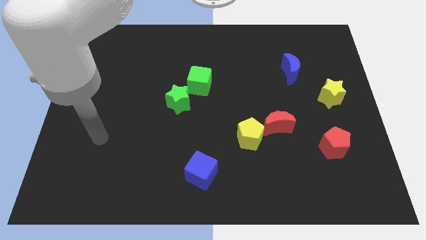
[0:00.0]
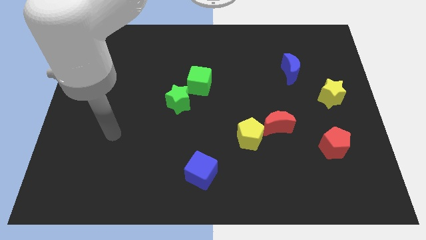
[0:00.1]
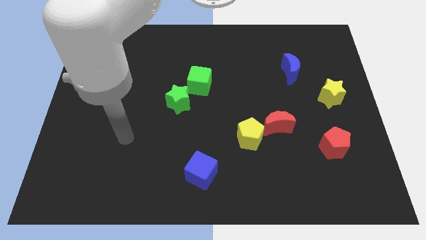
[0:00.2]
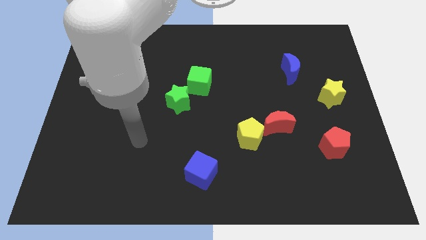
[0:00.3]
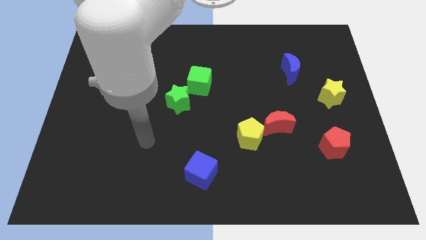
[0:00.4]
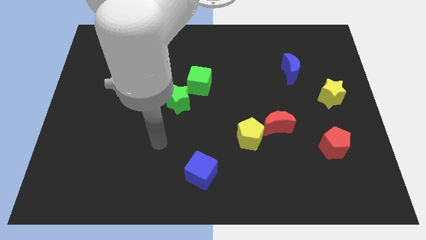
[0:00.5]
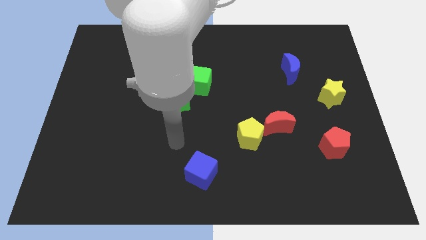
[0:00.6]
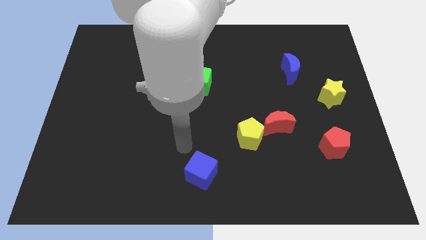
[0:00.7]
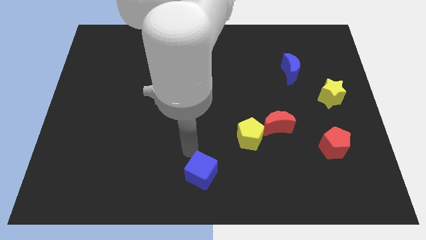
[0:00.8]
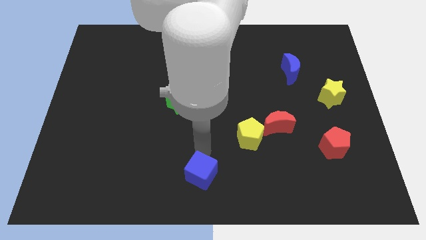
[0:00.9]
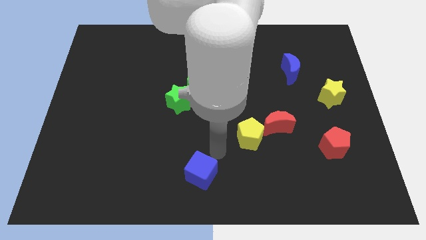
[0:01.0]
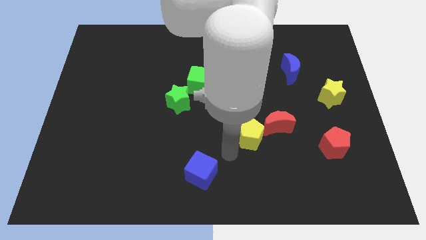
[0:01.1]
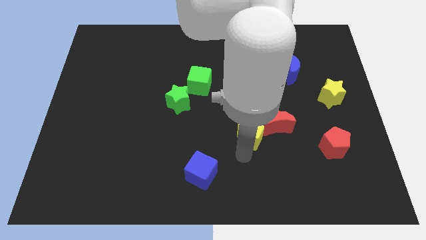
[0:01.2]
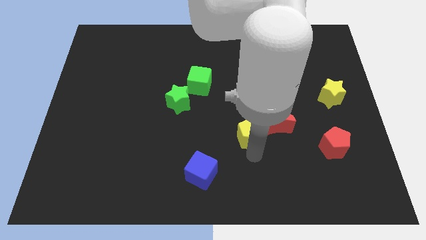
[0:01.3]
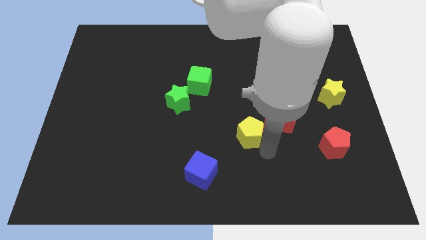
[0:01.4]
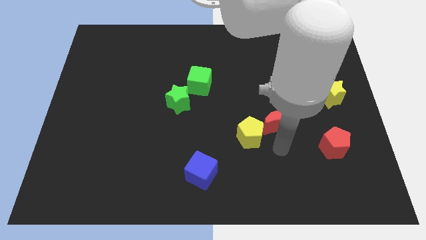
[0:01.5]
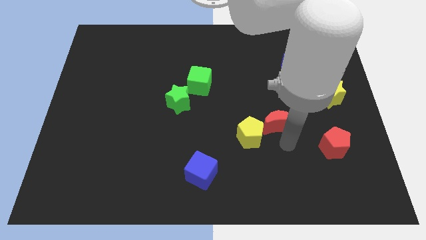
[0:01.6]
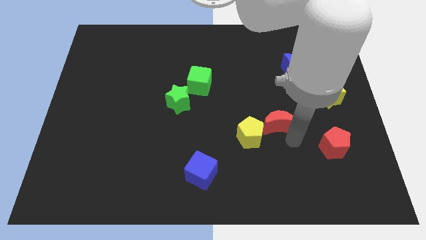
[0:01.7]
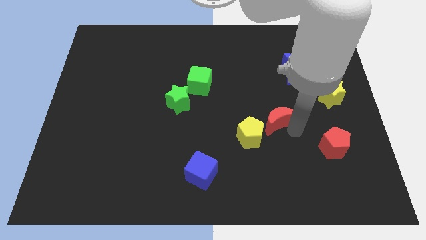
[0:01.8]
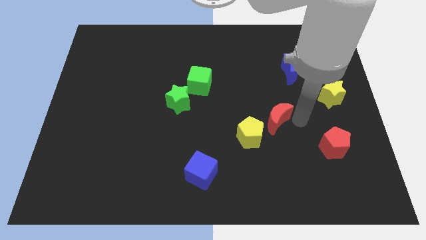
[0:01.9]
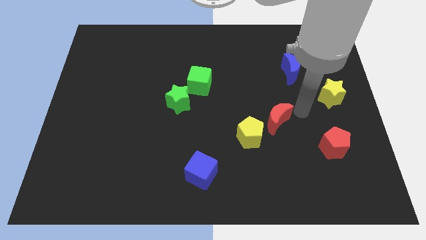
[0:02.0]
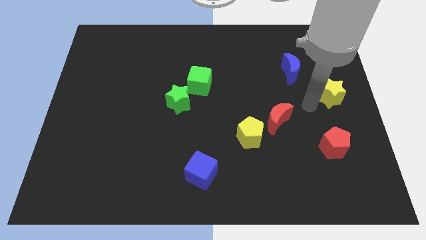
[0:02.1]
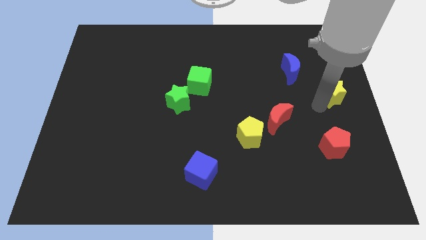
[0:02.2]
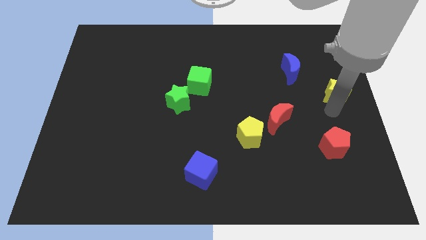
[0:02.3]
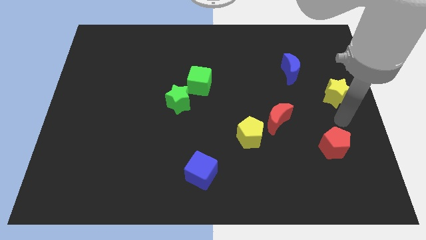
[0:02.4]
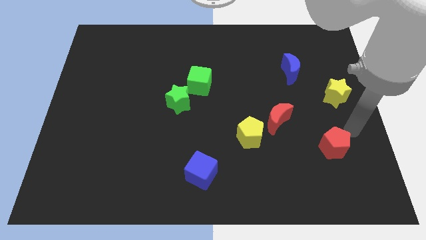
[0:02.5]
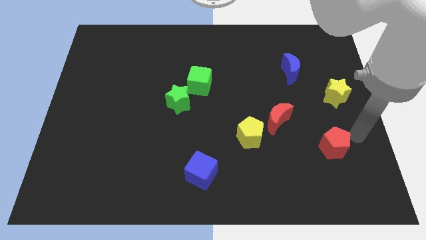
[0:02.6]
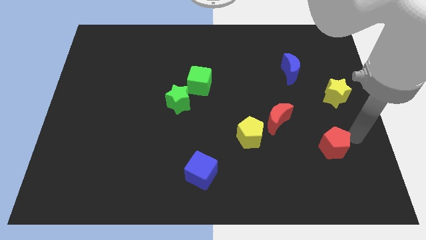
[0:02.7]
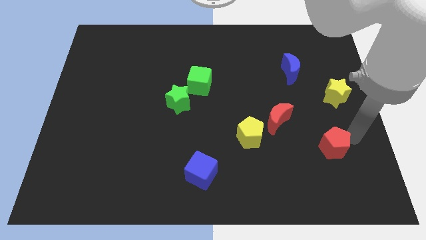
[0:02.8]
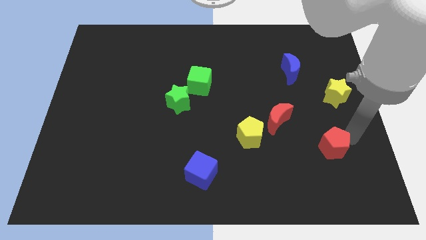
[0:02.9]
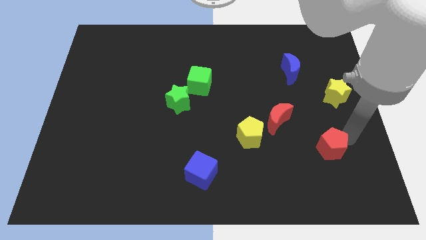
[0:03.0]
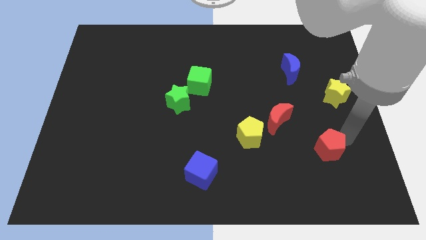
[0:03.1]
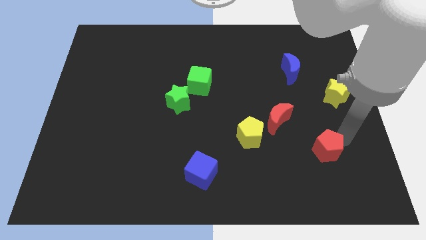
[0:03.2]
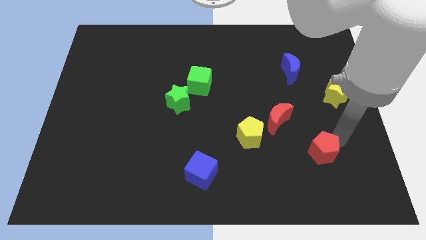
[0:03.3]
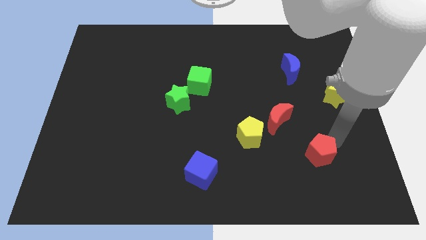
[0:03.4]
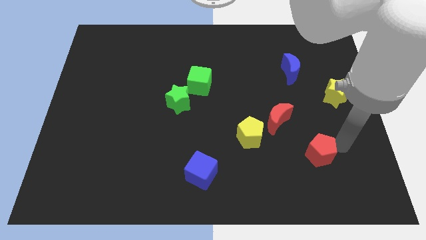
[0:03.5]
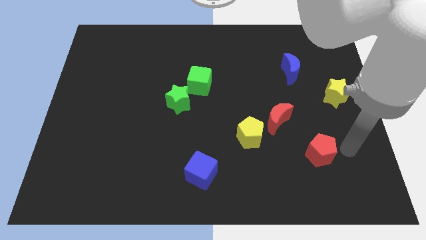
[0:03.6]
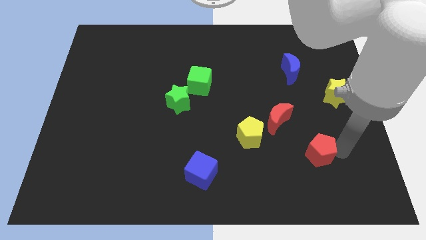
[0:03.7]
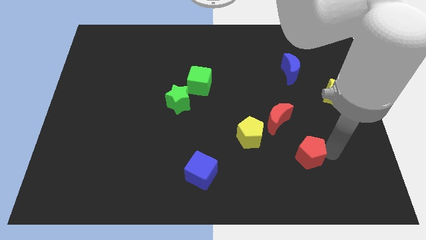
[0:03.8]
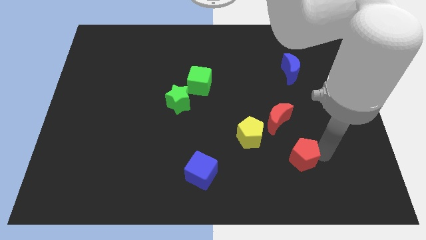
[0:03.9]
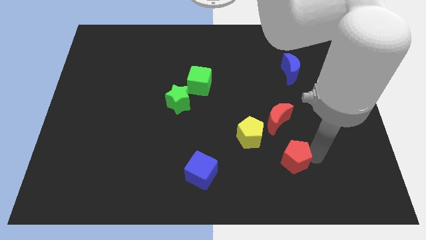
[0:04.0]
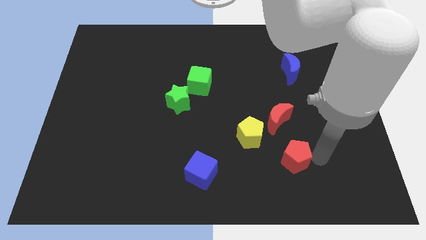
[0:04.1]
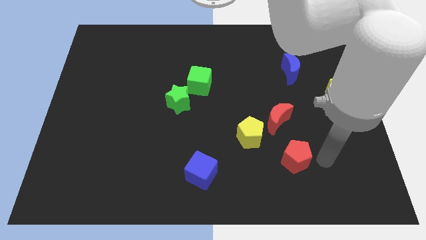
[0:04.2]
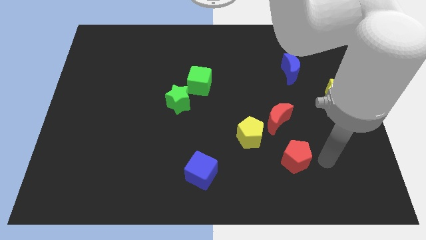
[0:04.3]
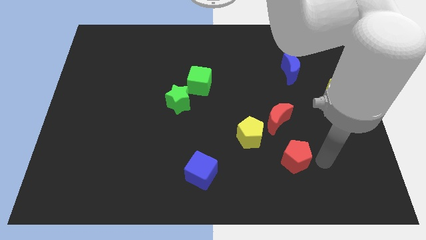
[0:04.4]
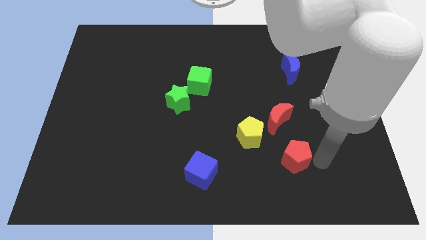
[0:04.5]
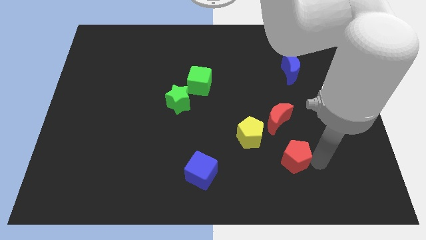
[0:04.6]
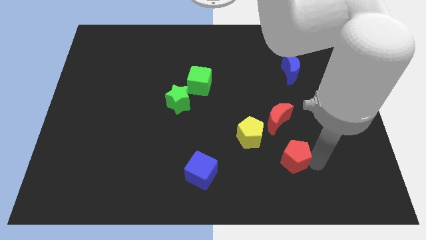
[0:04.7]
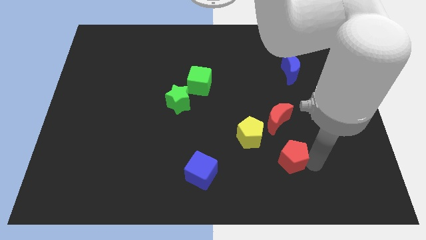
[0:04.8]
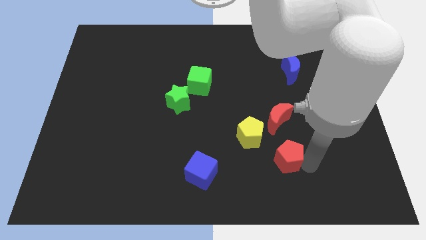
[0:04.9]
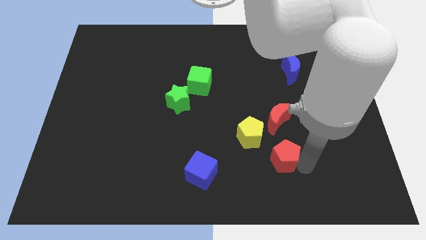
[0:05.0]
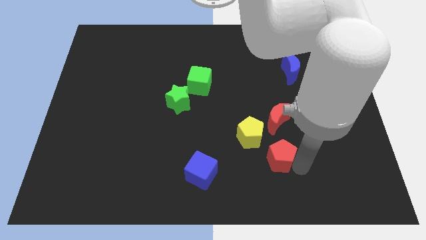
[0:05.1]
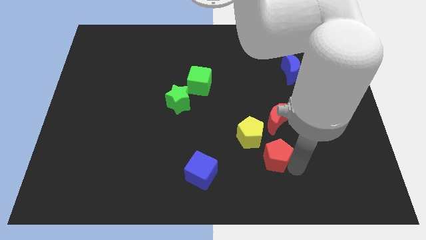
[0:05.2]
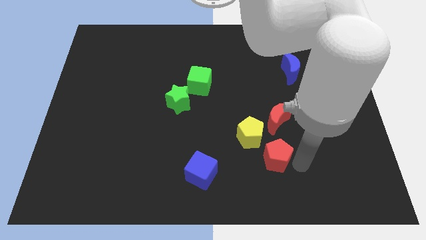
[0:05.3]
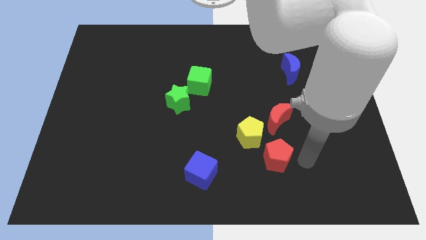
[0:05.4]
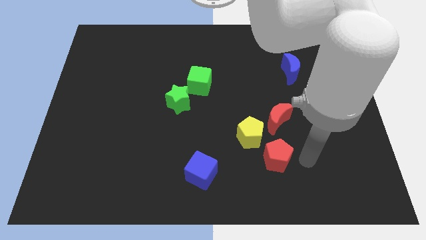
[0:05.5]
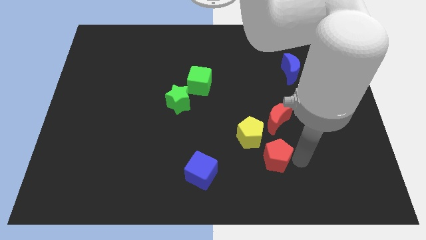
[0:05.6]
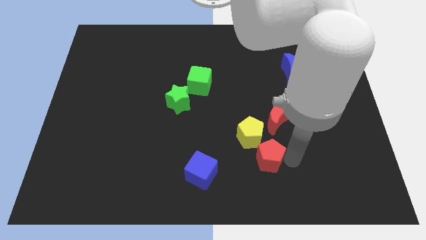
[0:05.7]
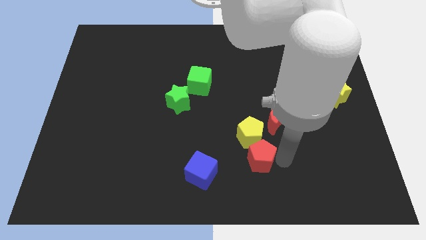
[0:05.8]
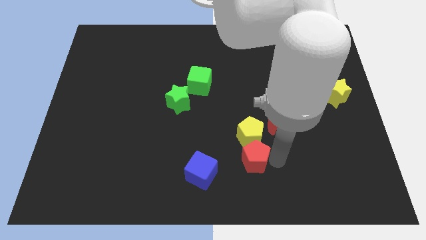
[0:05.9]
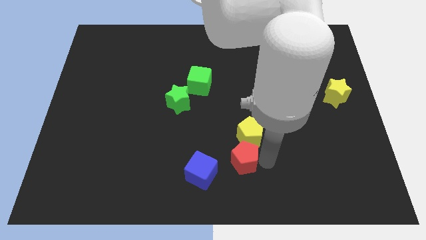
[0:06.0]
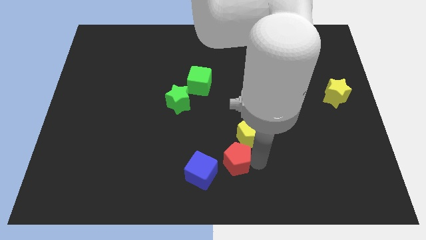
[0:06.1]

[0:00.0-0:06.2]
slide the red pentagon to the left

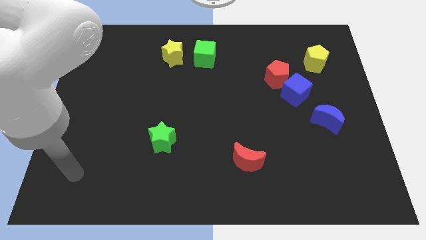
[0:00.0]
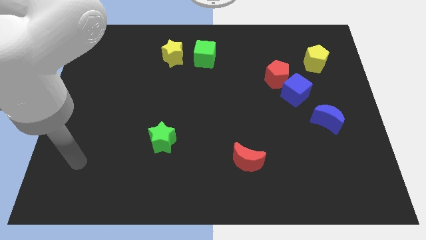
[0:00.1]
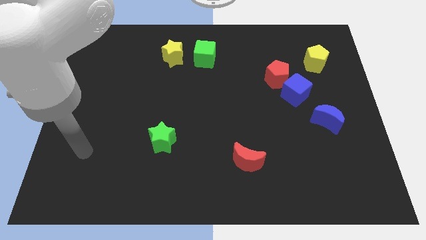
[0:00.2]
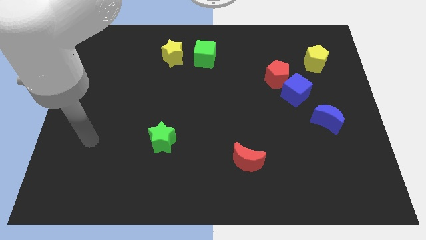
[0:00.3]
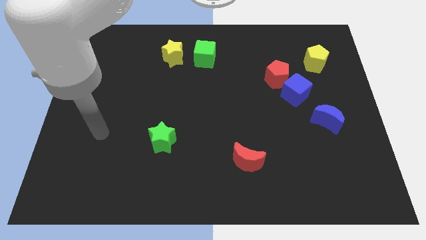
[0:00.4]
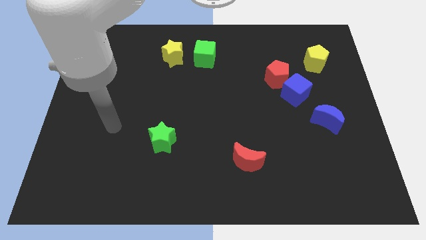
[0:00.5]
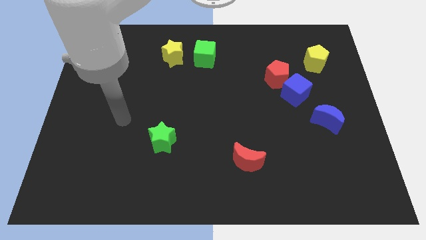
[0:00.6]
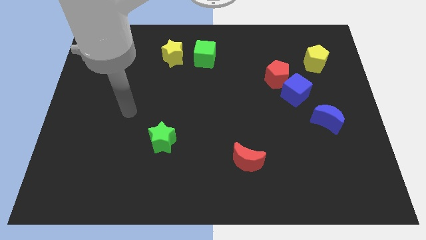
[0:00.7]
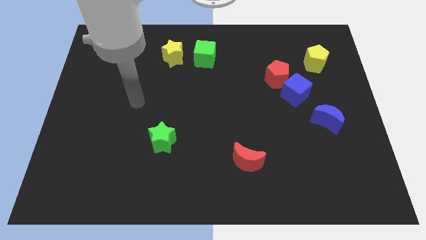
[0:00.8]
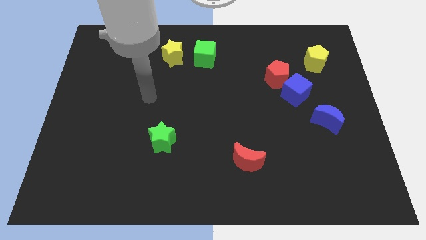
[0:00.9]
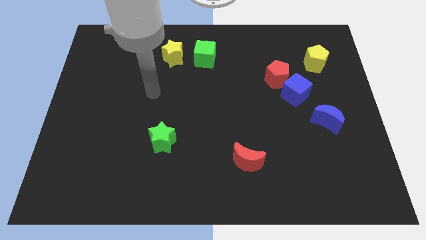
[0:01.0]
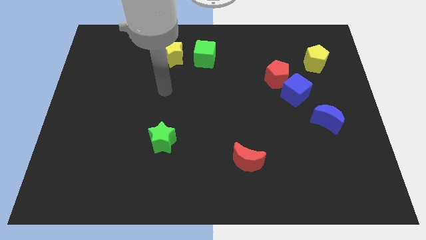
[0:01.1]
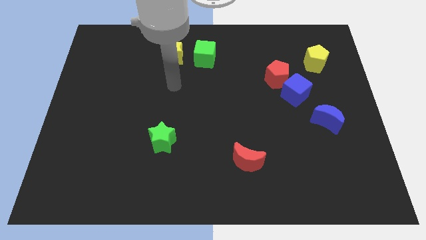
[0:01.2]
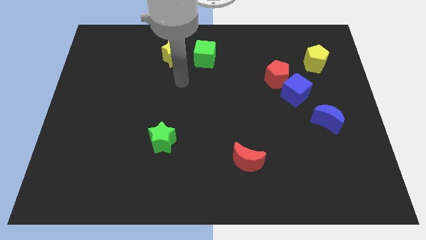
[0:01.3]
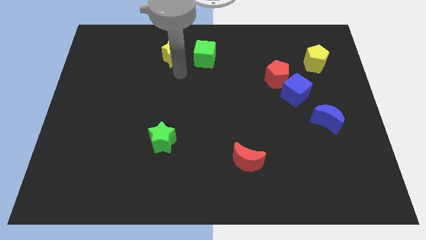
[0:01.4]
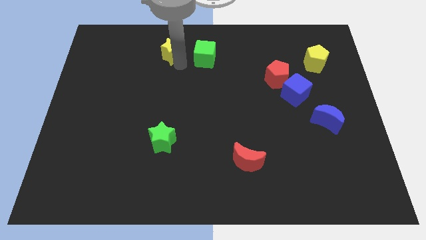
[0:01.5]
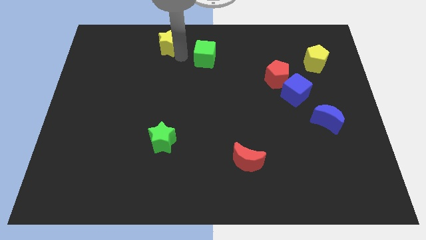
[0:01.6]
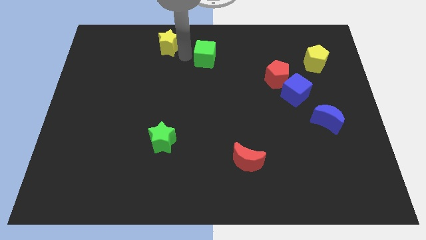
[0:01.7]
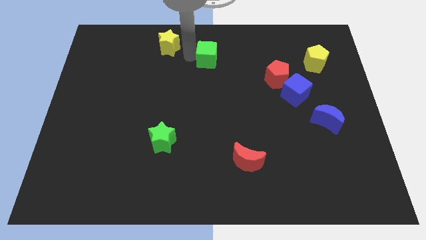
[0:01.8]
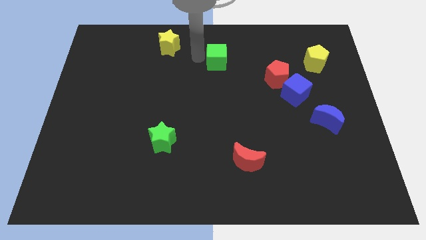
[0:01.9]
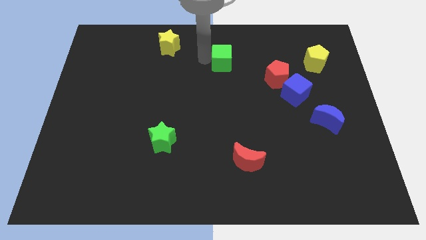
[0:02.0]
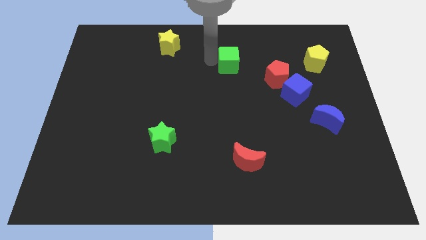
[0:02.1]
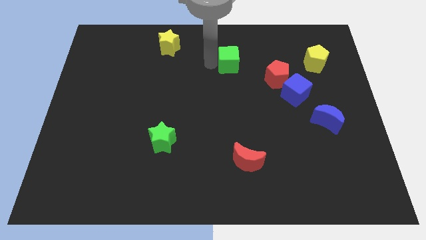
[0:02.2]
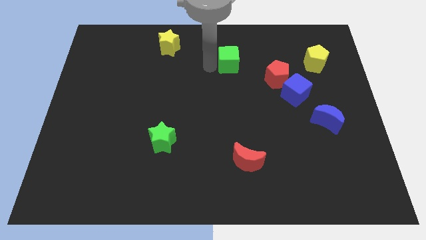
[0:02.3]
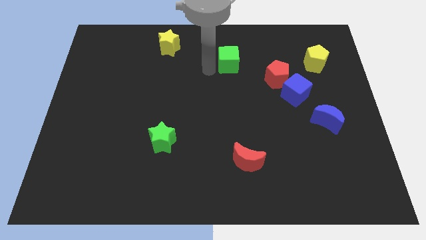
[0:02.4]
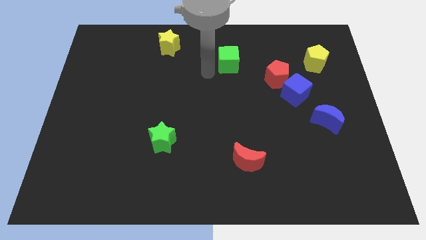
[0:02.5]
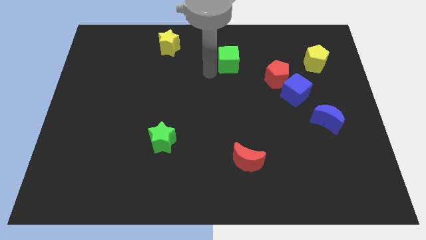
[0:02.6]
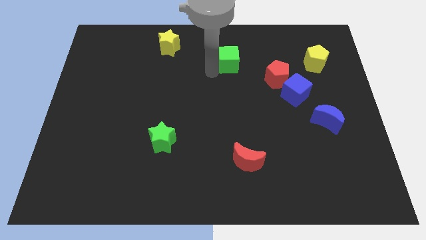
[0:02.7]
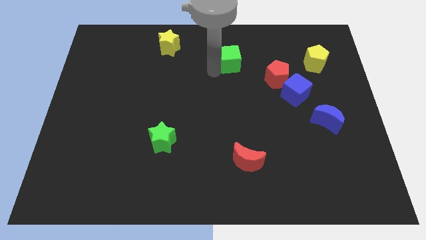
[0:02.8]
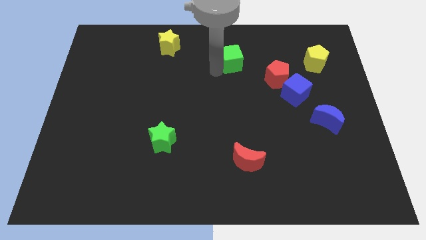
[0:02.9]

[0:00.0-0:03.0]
slightly push the green cube right
